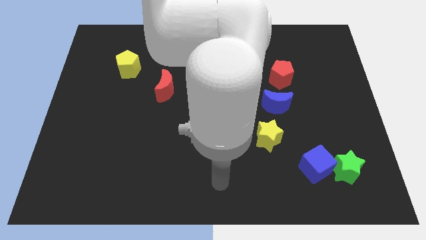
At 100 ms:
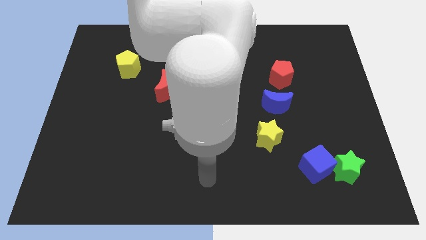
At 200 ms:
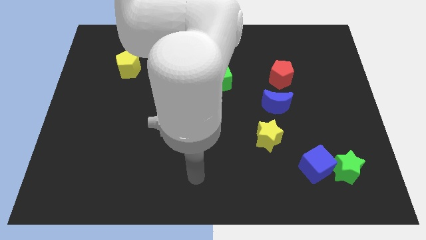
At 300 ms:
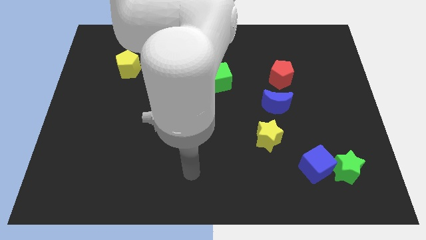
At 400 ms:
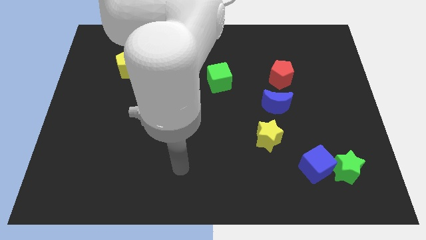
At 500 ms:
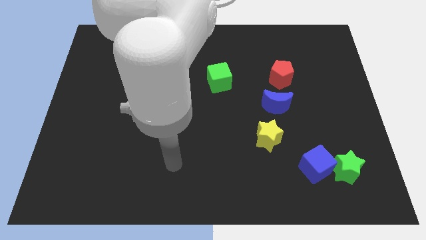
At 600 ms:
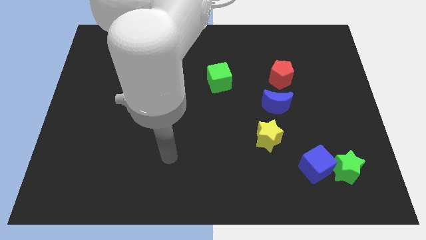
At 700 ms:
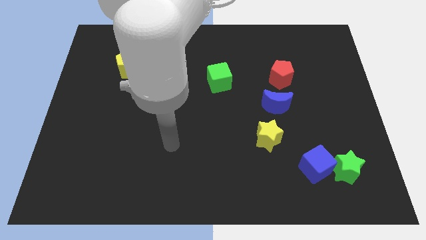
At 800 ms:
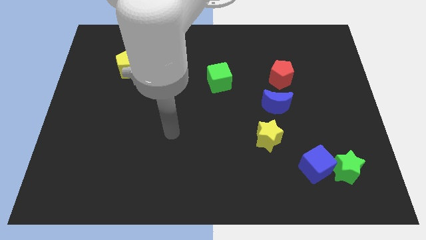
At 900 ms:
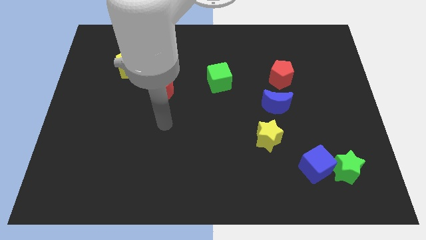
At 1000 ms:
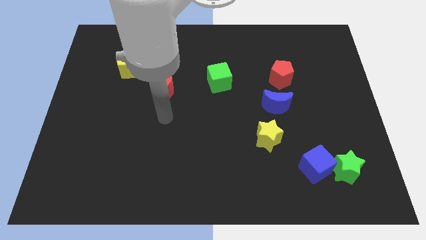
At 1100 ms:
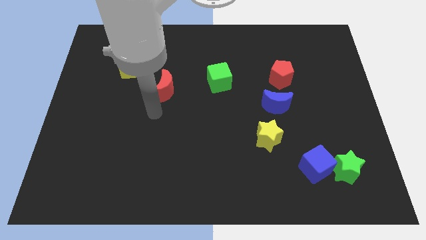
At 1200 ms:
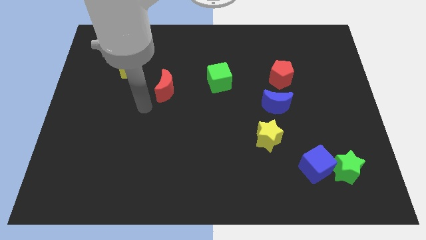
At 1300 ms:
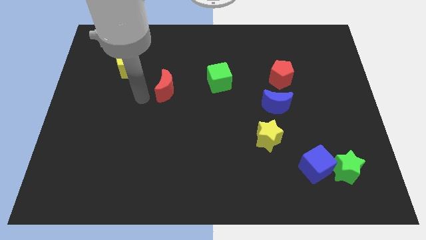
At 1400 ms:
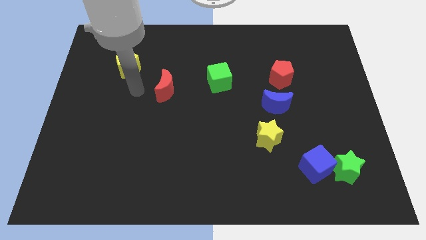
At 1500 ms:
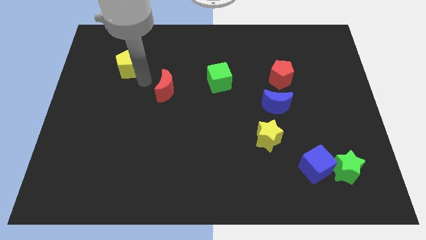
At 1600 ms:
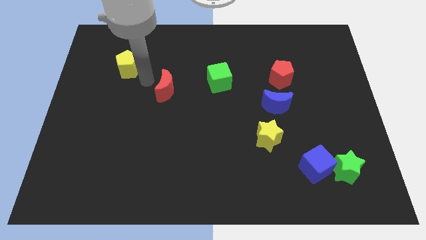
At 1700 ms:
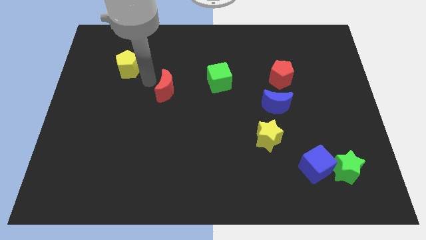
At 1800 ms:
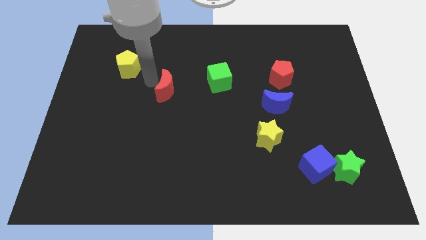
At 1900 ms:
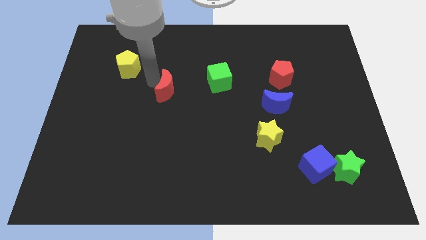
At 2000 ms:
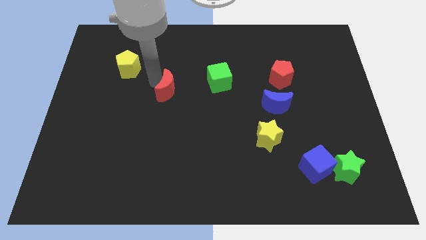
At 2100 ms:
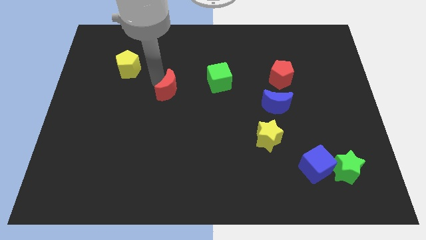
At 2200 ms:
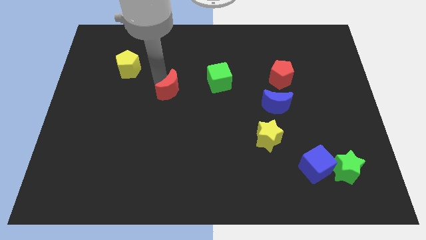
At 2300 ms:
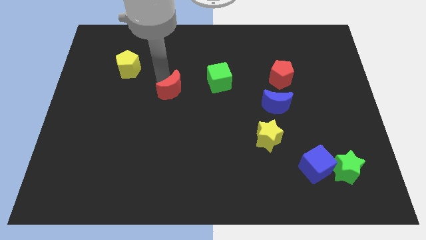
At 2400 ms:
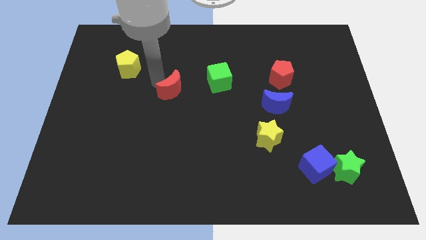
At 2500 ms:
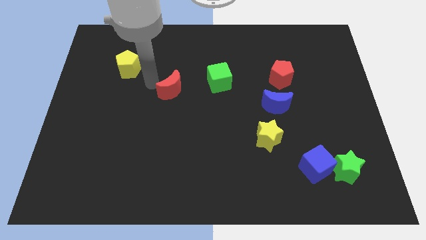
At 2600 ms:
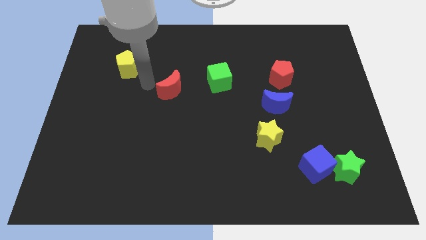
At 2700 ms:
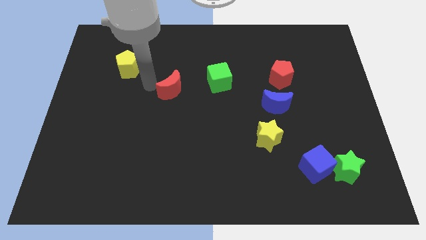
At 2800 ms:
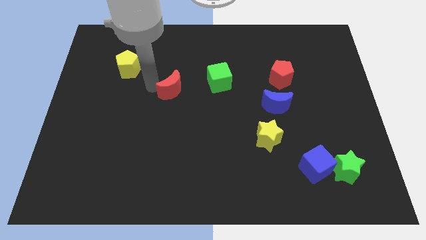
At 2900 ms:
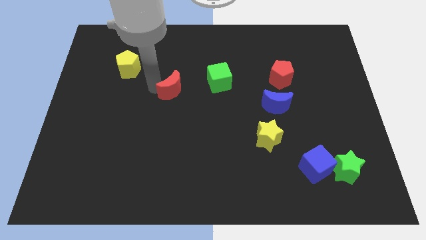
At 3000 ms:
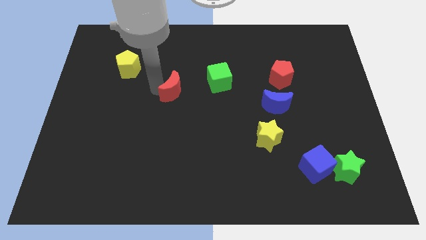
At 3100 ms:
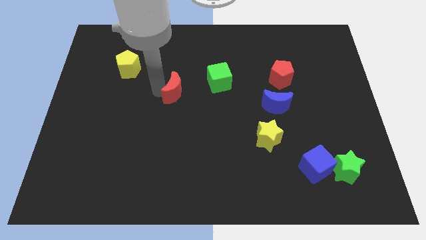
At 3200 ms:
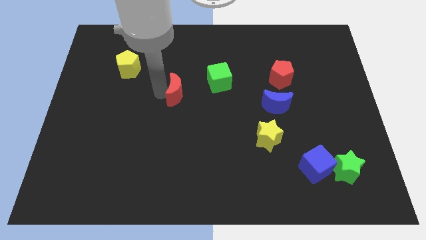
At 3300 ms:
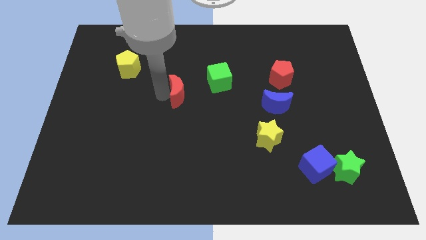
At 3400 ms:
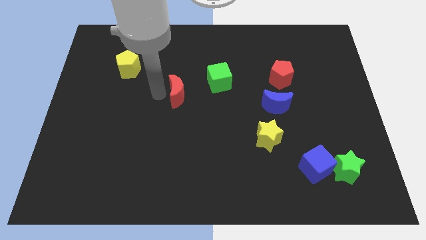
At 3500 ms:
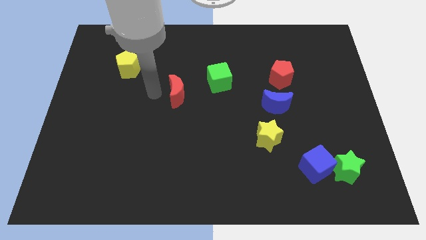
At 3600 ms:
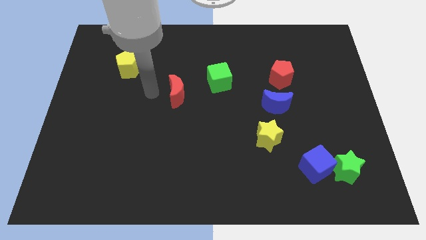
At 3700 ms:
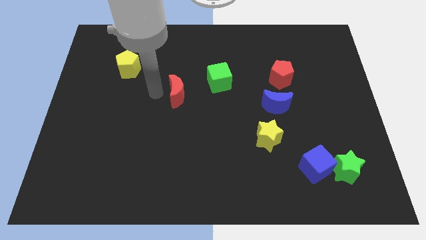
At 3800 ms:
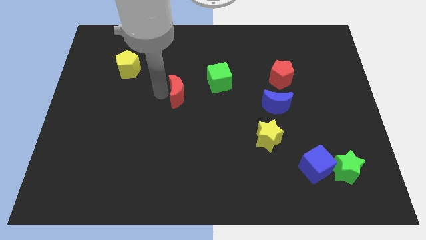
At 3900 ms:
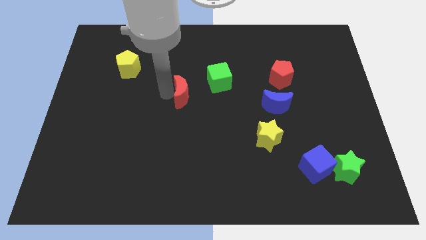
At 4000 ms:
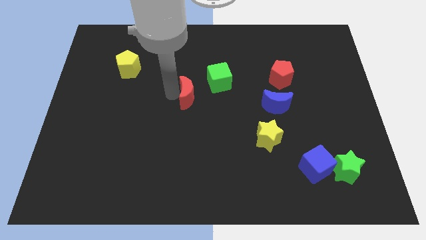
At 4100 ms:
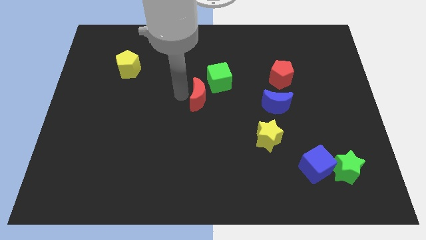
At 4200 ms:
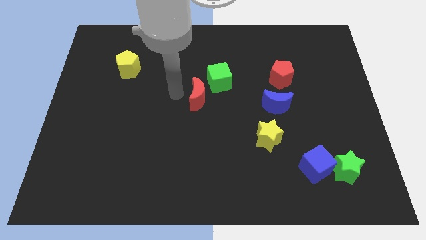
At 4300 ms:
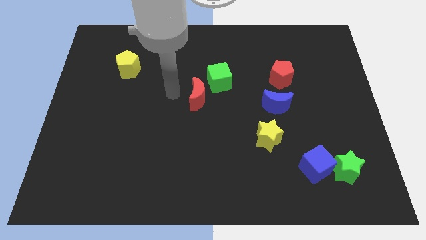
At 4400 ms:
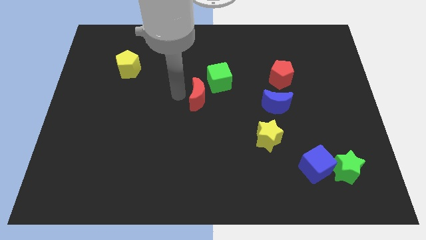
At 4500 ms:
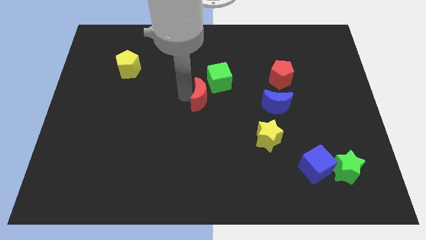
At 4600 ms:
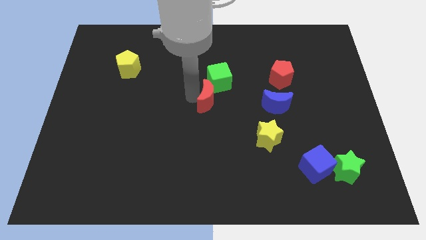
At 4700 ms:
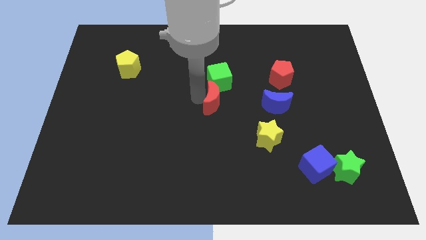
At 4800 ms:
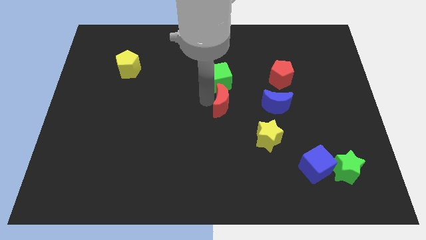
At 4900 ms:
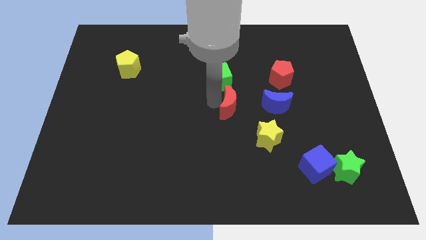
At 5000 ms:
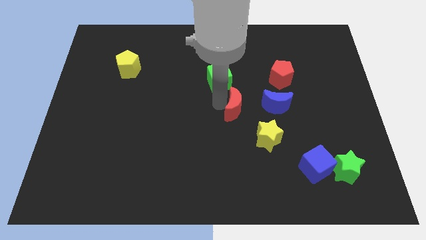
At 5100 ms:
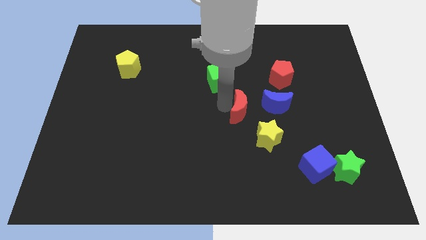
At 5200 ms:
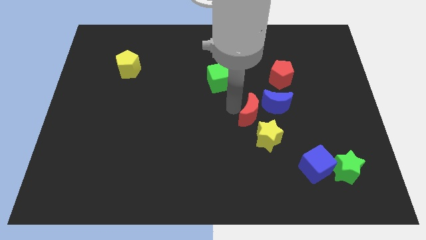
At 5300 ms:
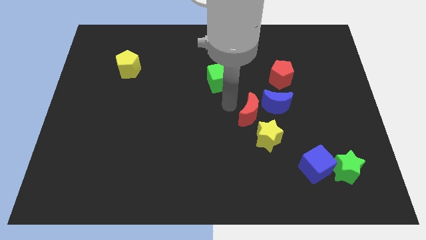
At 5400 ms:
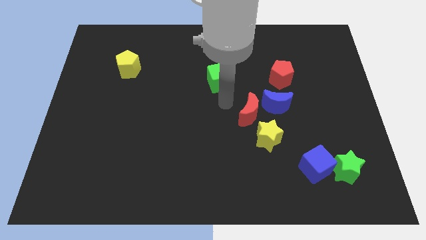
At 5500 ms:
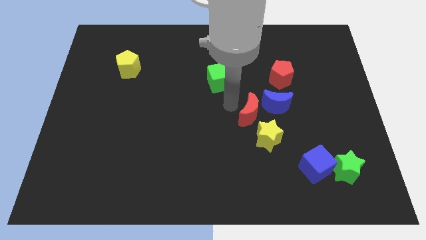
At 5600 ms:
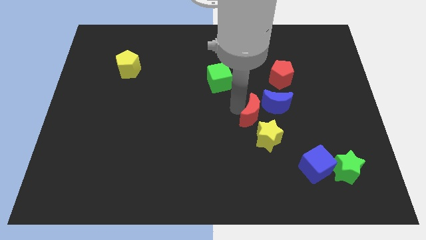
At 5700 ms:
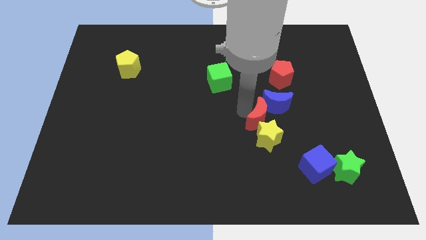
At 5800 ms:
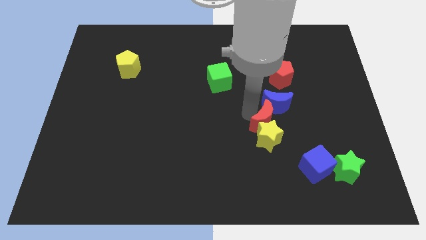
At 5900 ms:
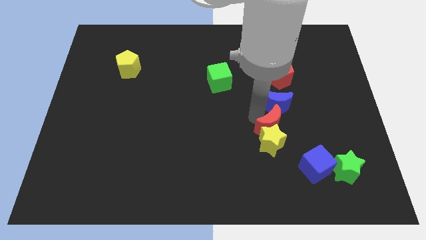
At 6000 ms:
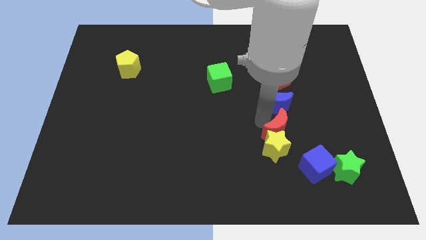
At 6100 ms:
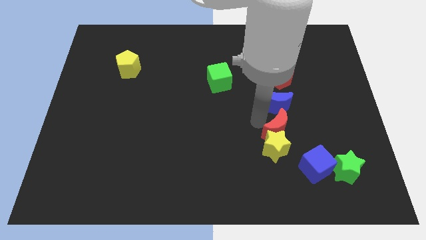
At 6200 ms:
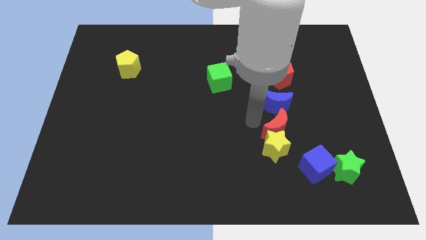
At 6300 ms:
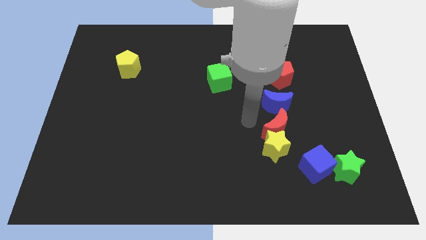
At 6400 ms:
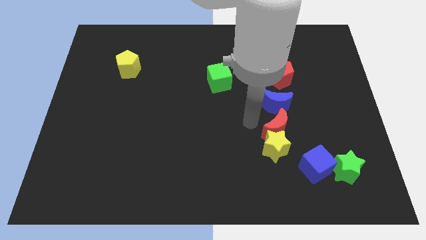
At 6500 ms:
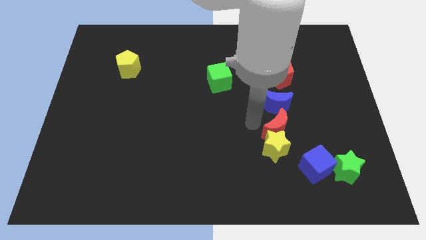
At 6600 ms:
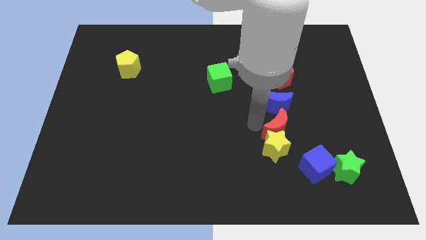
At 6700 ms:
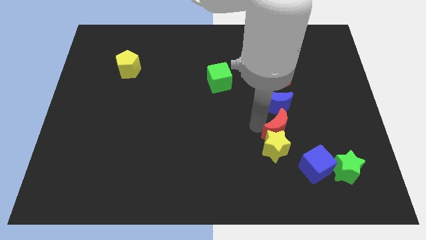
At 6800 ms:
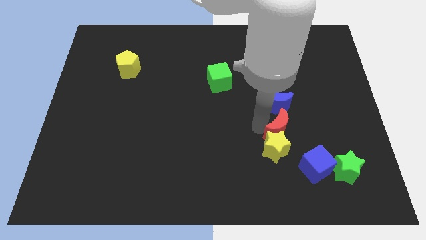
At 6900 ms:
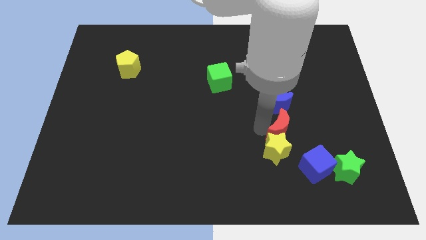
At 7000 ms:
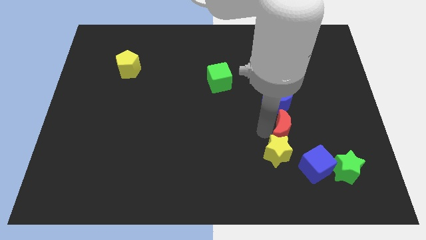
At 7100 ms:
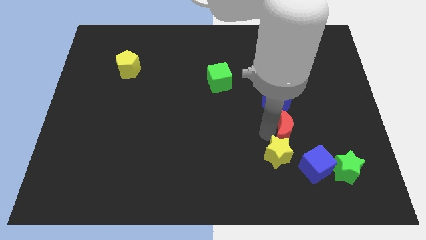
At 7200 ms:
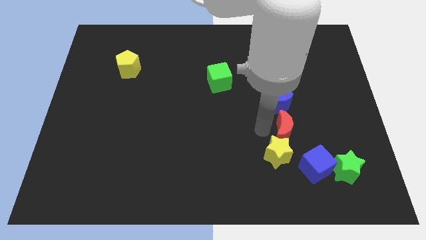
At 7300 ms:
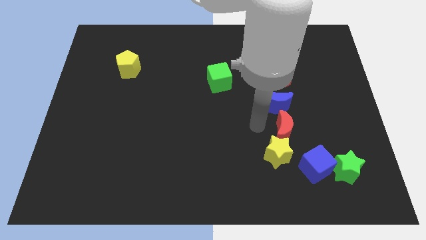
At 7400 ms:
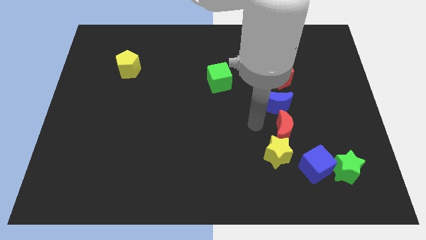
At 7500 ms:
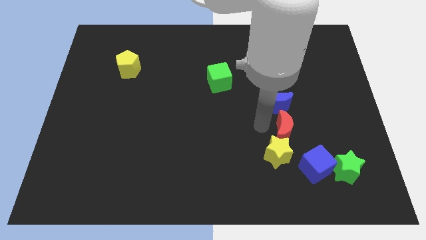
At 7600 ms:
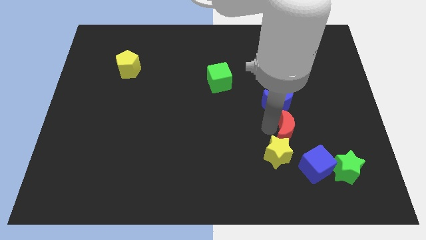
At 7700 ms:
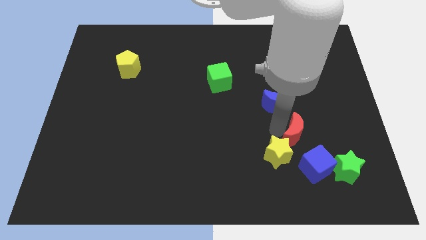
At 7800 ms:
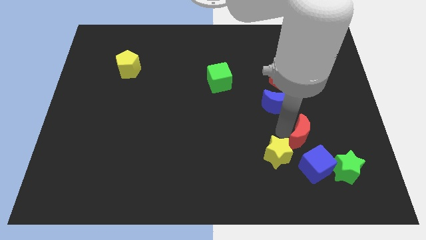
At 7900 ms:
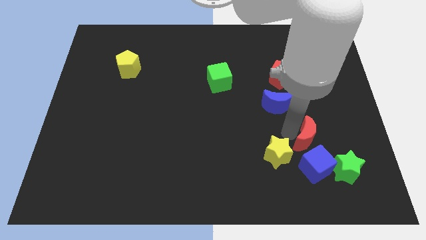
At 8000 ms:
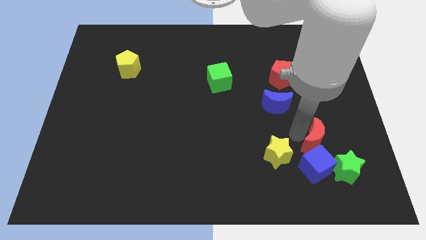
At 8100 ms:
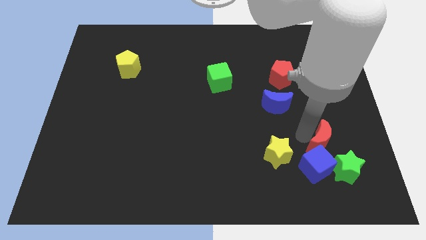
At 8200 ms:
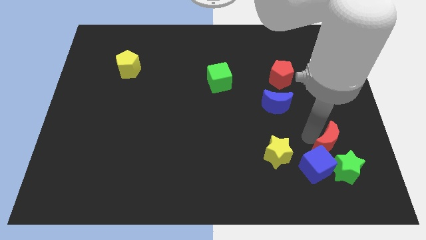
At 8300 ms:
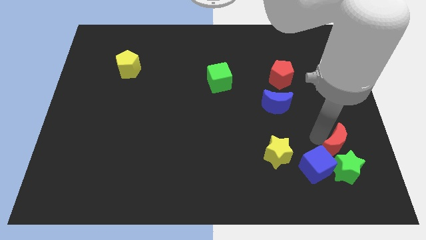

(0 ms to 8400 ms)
push the red moon next to the green star
